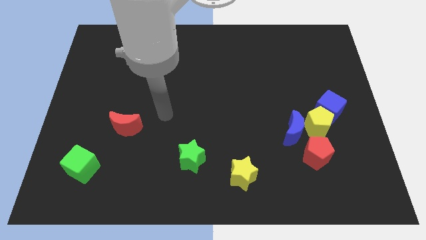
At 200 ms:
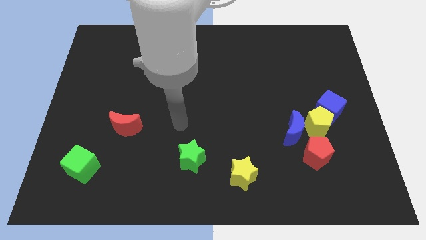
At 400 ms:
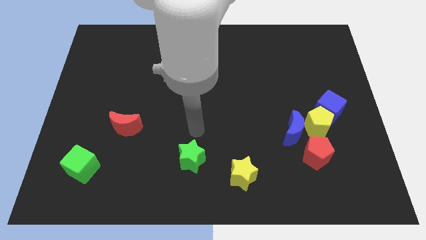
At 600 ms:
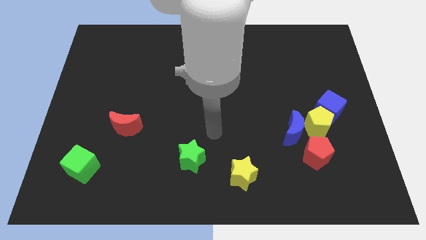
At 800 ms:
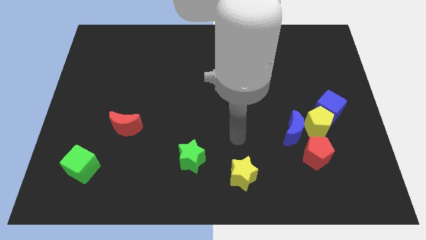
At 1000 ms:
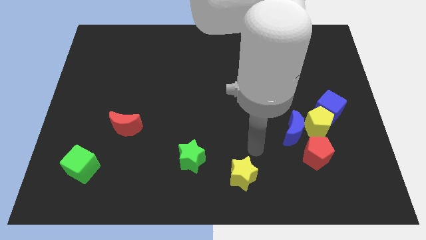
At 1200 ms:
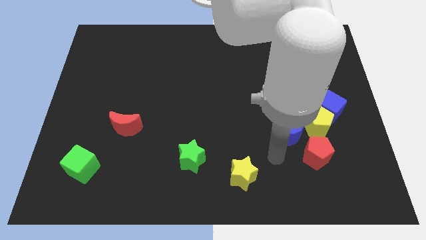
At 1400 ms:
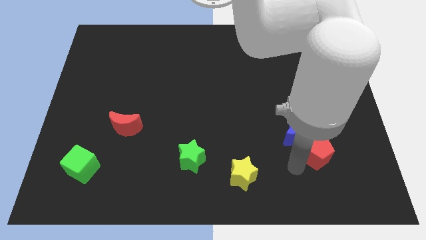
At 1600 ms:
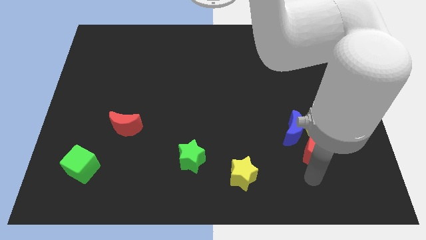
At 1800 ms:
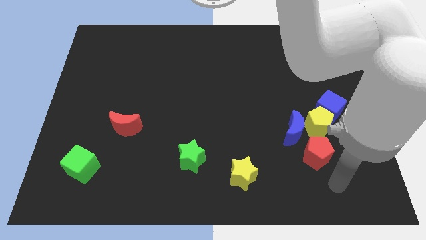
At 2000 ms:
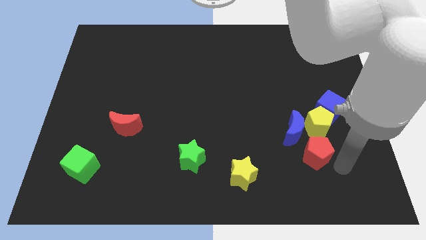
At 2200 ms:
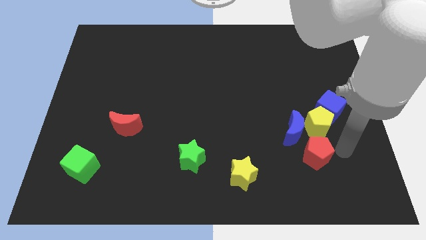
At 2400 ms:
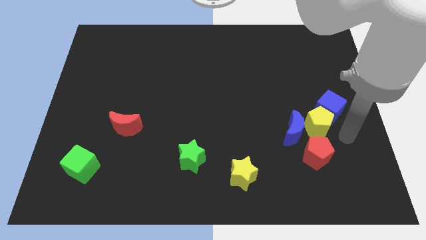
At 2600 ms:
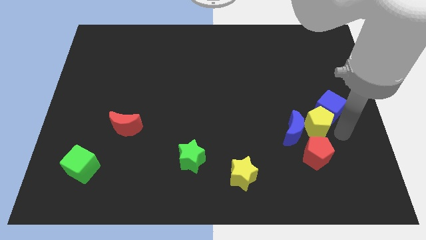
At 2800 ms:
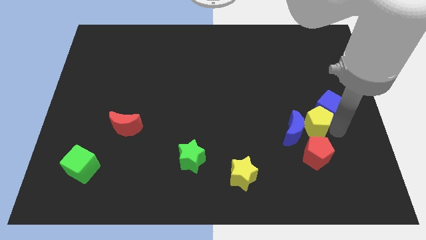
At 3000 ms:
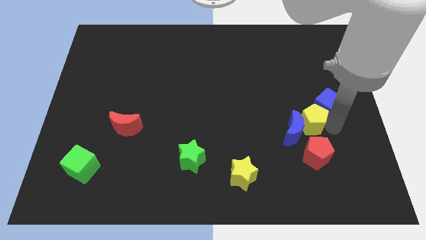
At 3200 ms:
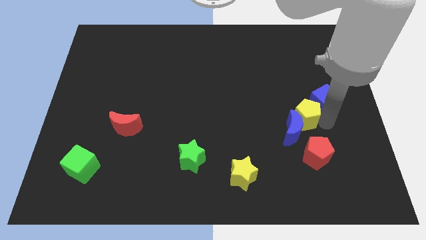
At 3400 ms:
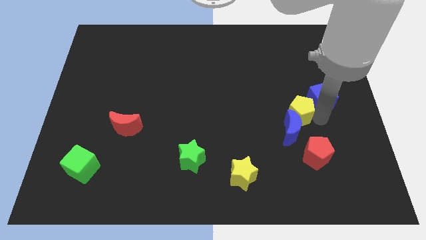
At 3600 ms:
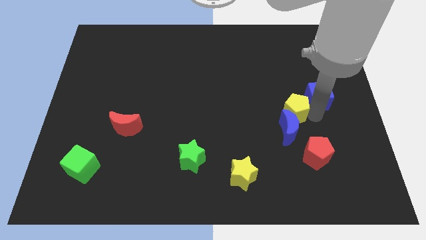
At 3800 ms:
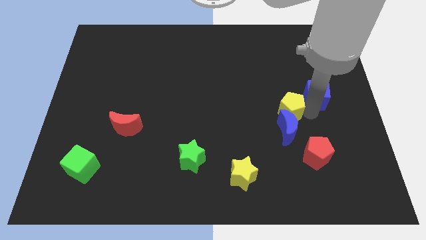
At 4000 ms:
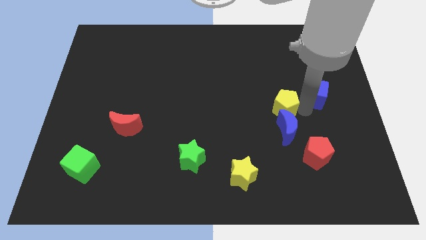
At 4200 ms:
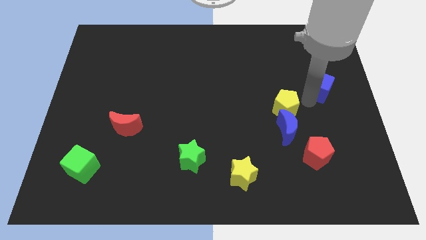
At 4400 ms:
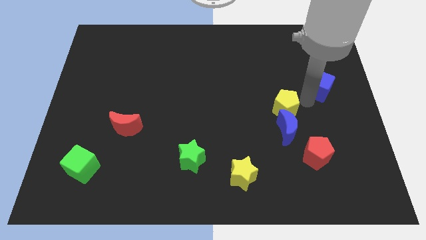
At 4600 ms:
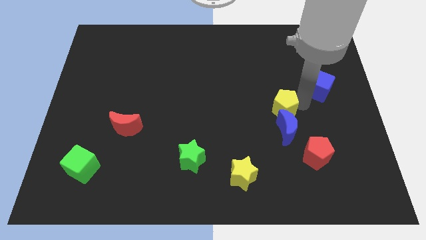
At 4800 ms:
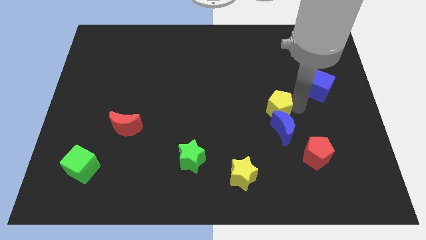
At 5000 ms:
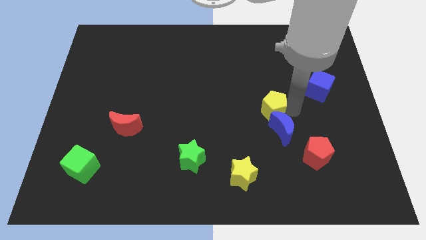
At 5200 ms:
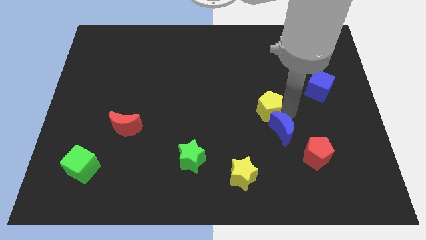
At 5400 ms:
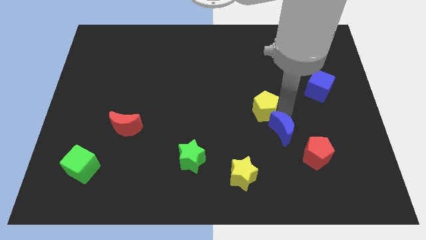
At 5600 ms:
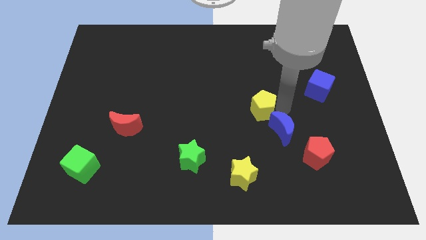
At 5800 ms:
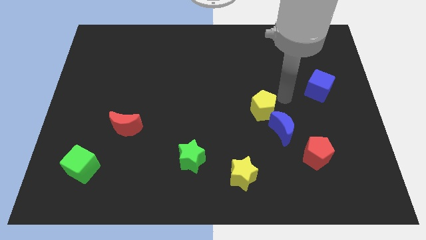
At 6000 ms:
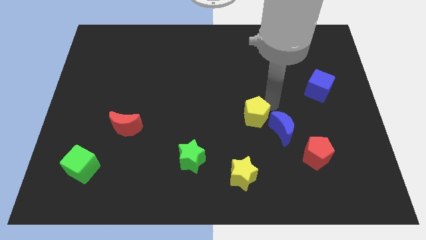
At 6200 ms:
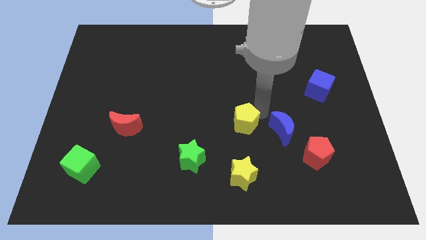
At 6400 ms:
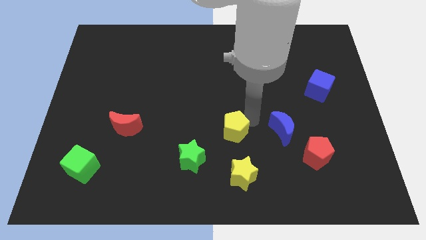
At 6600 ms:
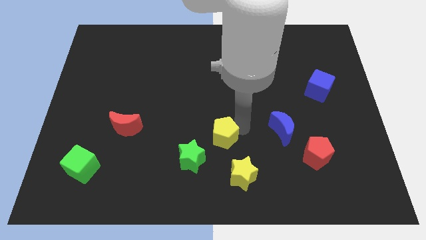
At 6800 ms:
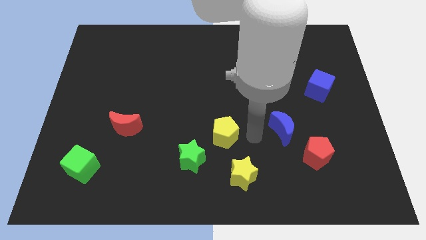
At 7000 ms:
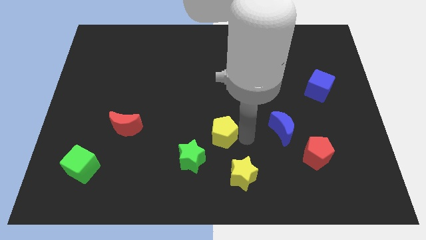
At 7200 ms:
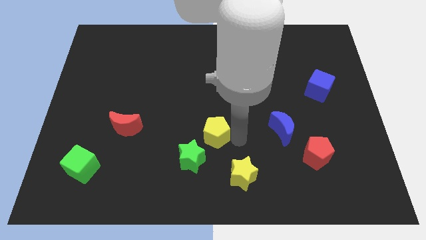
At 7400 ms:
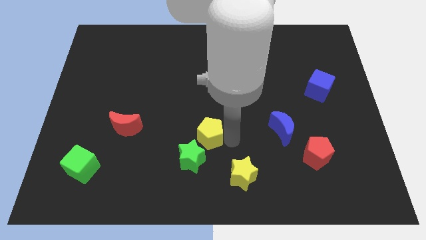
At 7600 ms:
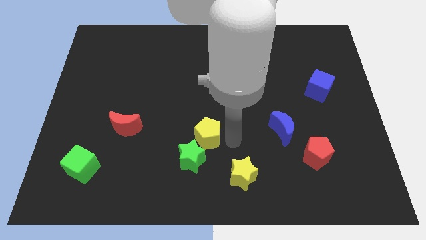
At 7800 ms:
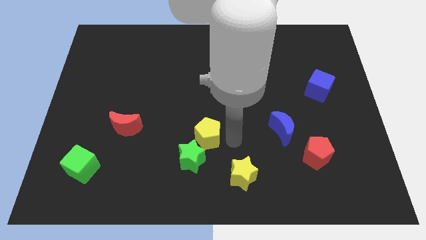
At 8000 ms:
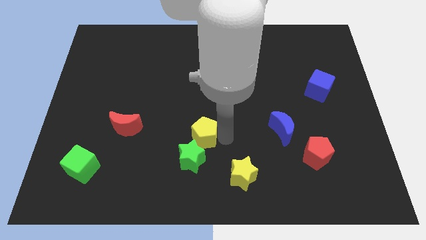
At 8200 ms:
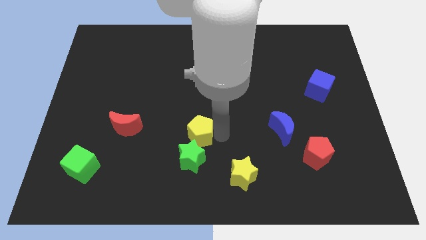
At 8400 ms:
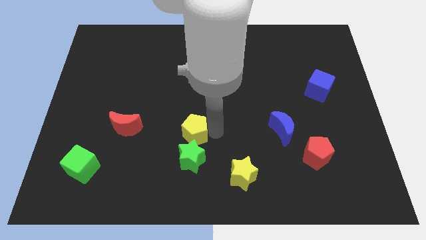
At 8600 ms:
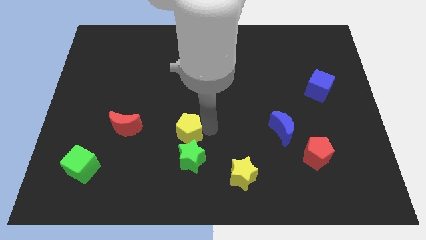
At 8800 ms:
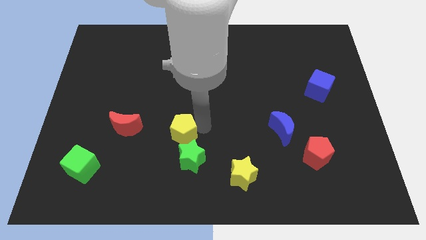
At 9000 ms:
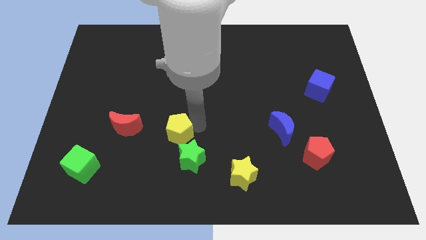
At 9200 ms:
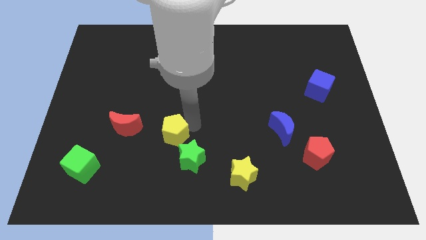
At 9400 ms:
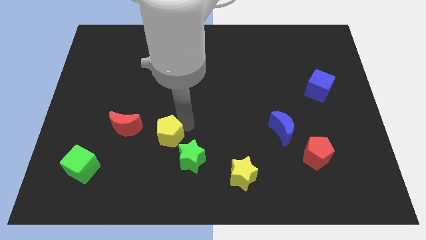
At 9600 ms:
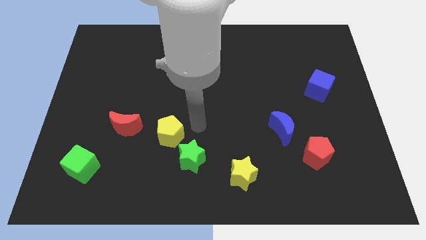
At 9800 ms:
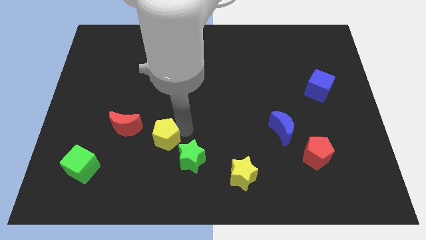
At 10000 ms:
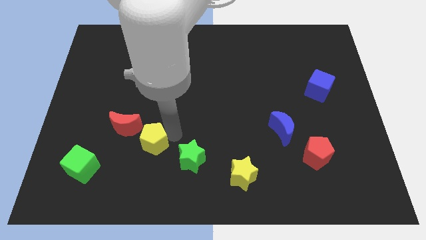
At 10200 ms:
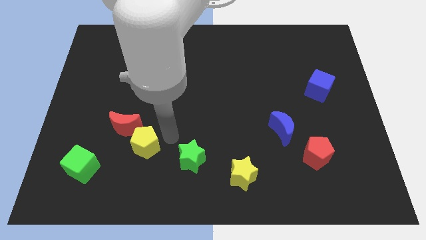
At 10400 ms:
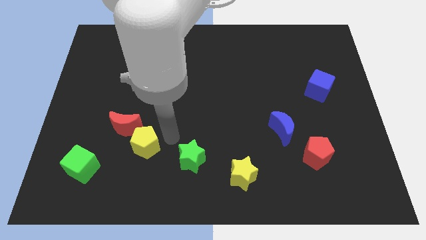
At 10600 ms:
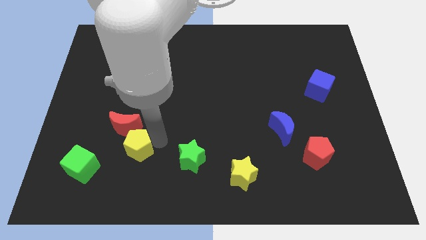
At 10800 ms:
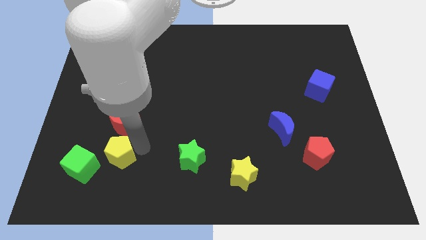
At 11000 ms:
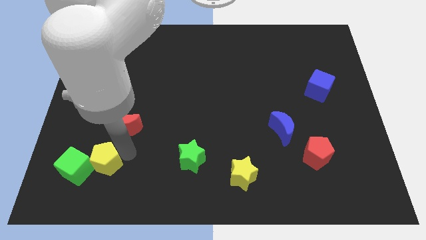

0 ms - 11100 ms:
slide the yellow pentagon next to the green cube

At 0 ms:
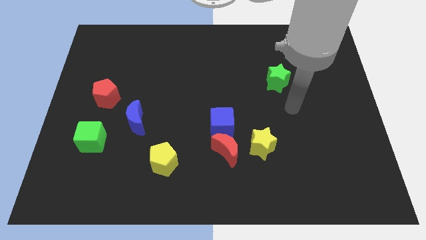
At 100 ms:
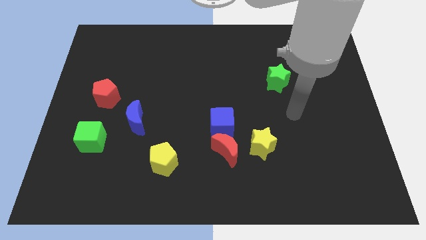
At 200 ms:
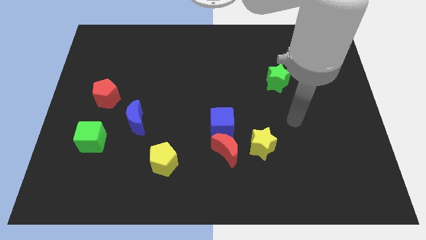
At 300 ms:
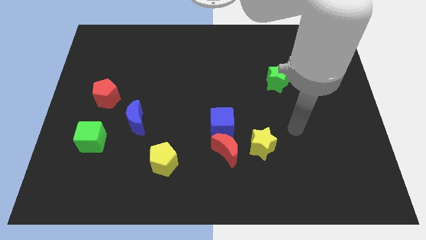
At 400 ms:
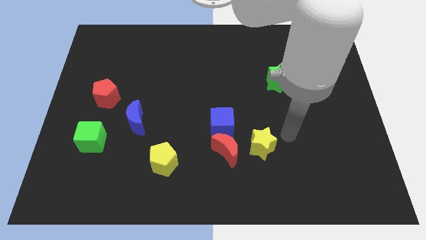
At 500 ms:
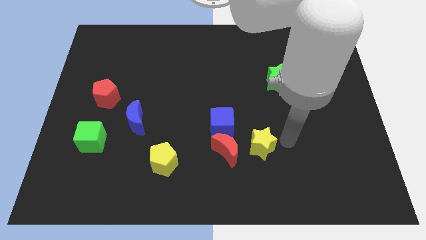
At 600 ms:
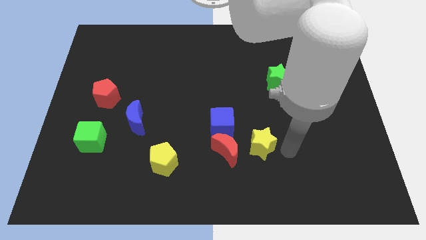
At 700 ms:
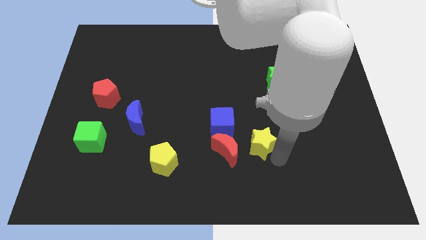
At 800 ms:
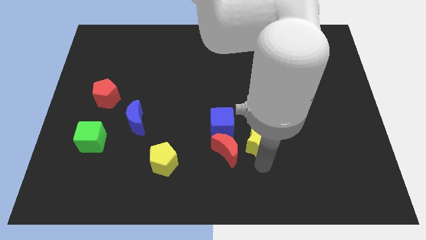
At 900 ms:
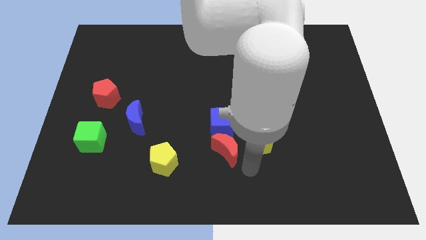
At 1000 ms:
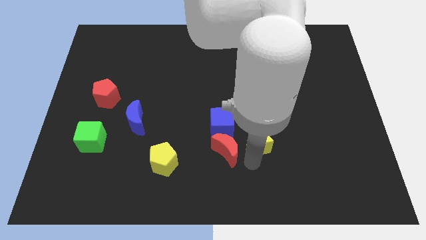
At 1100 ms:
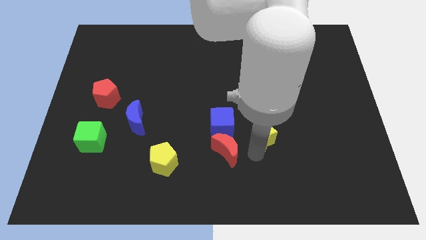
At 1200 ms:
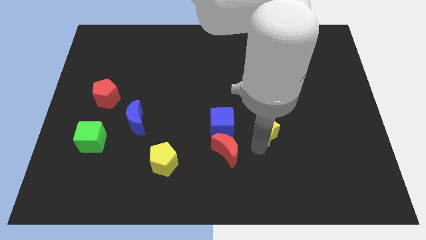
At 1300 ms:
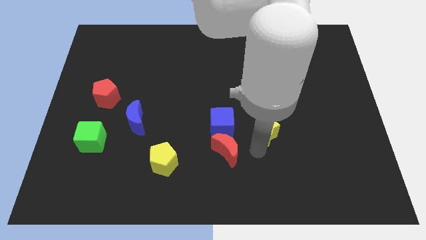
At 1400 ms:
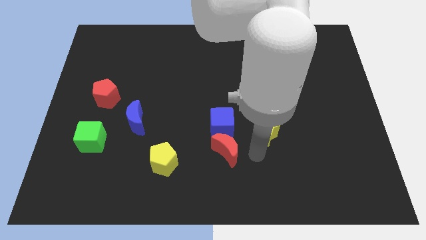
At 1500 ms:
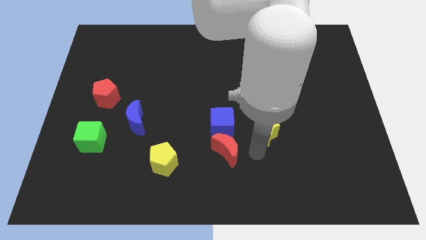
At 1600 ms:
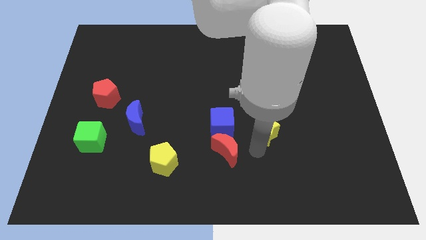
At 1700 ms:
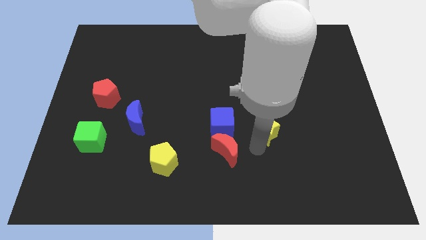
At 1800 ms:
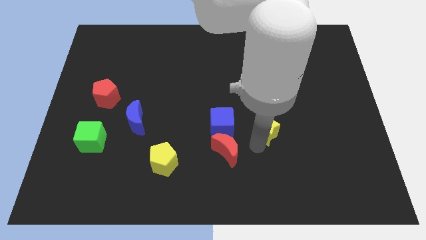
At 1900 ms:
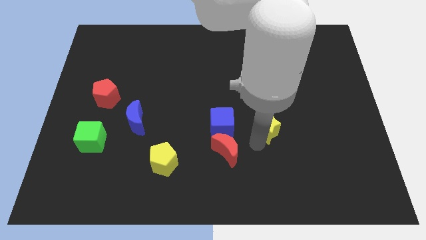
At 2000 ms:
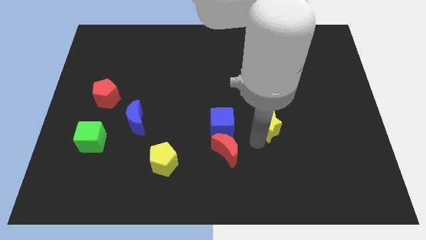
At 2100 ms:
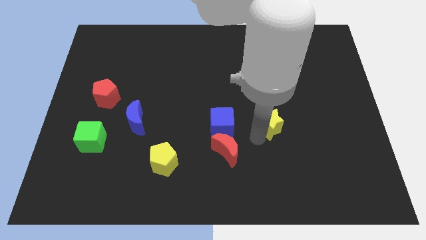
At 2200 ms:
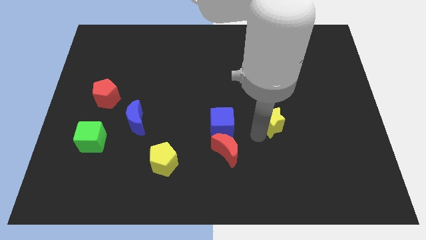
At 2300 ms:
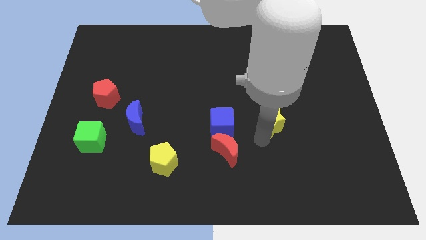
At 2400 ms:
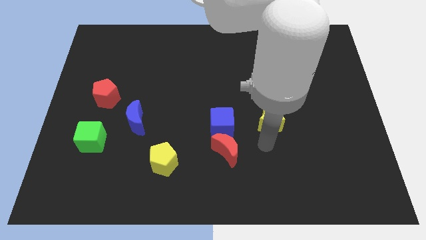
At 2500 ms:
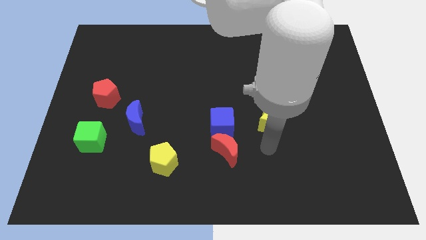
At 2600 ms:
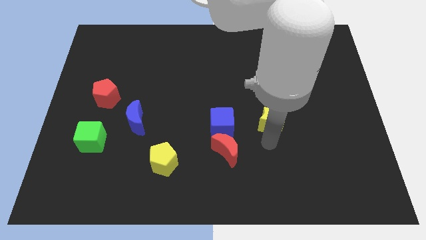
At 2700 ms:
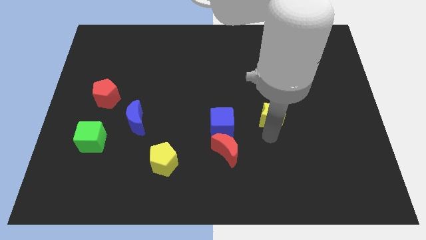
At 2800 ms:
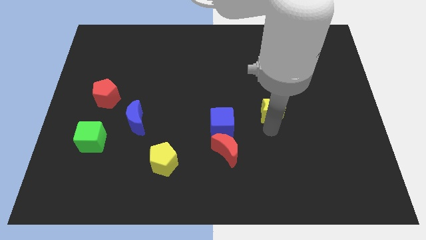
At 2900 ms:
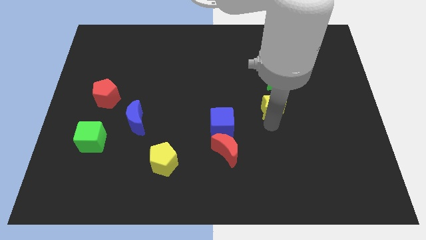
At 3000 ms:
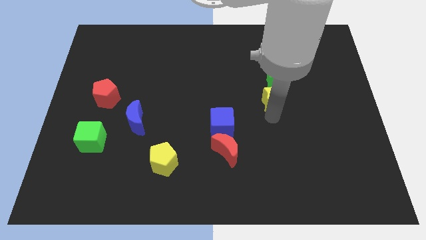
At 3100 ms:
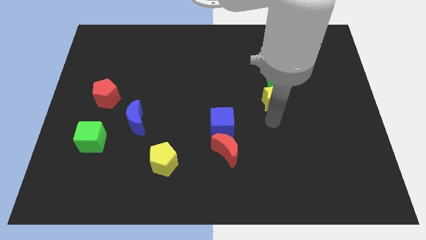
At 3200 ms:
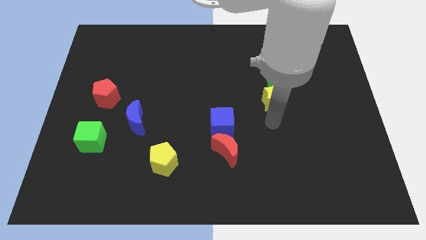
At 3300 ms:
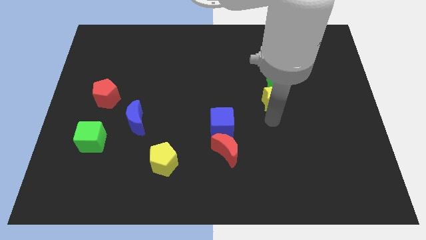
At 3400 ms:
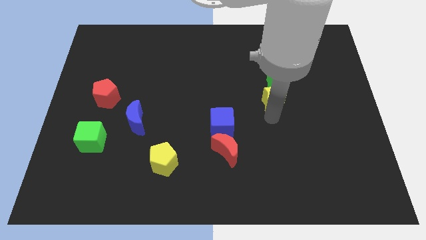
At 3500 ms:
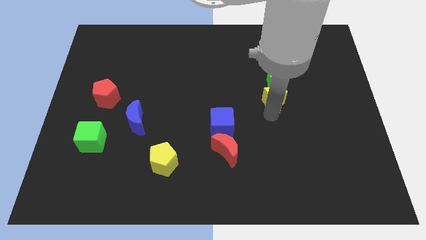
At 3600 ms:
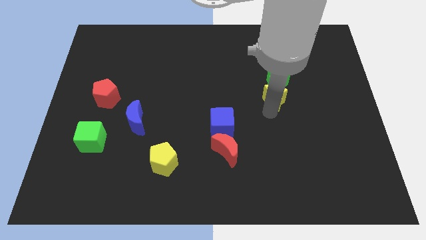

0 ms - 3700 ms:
slide the yellow star next to the green star
